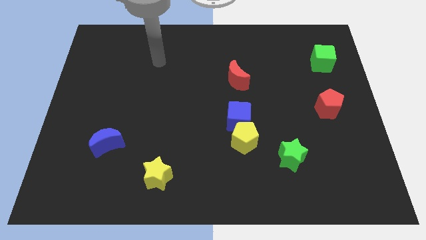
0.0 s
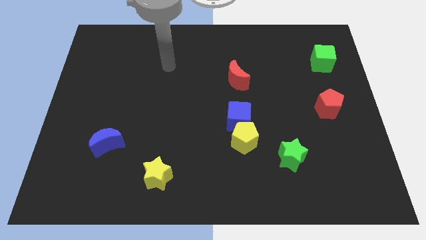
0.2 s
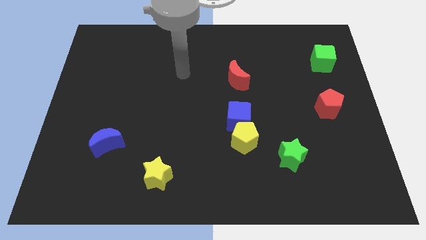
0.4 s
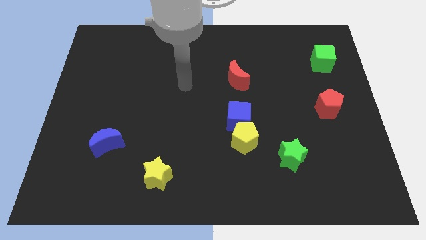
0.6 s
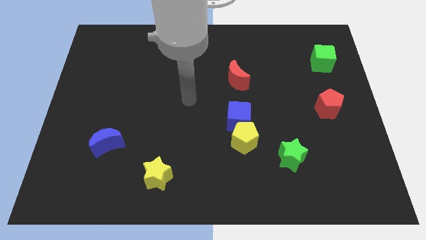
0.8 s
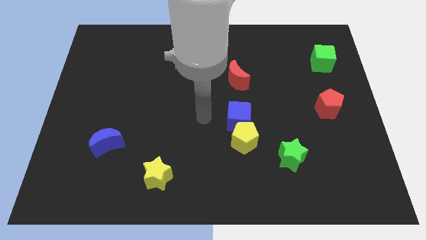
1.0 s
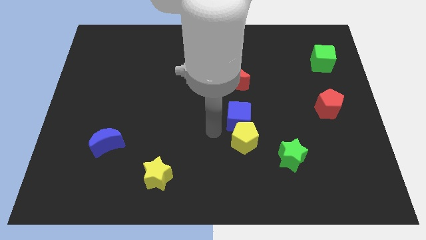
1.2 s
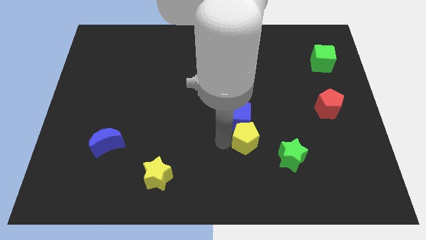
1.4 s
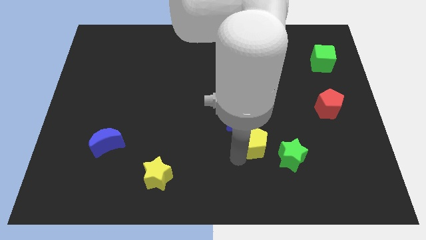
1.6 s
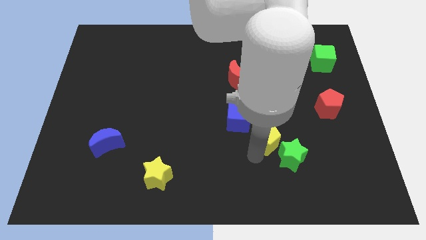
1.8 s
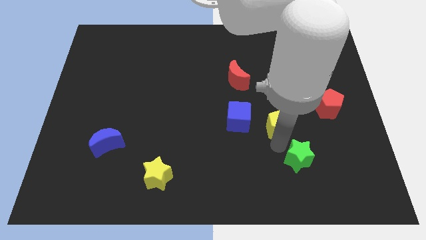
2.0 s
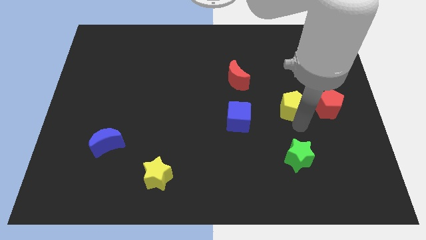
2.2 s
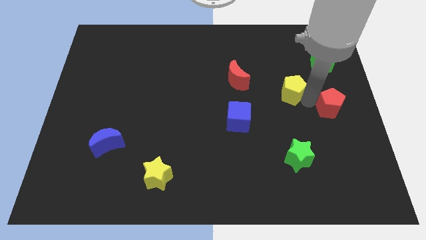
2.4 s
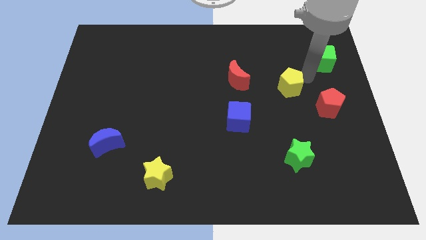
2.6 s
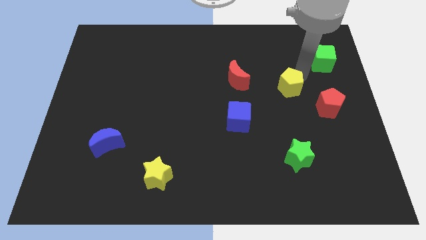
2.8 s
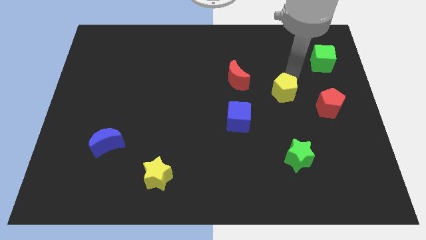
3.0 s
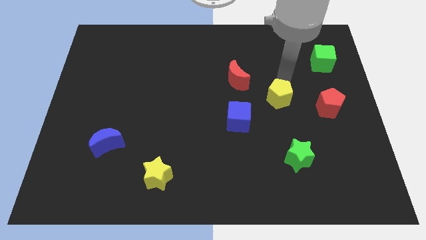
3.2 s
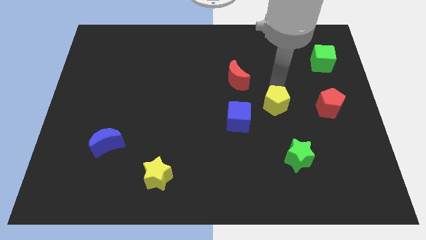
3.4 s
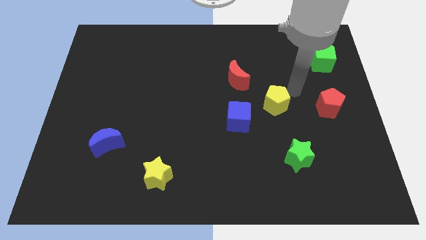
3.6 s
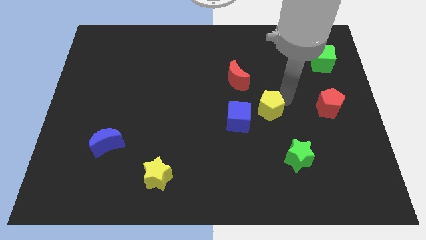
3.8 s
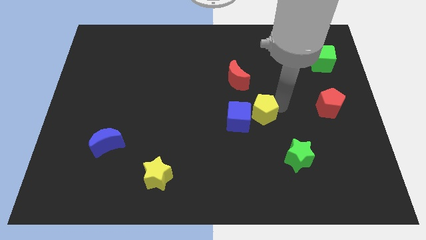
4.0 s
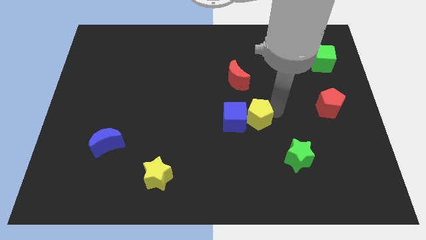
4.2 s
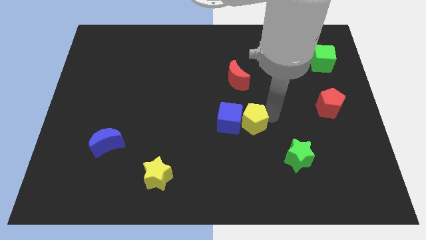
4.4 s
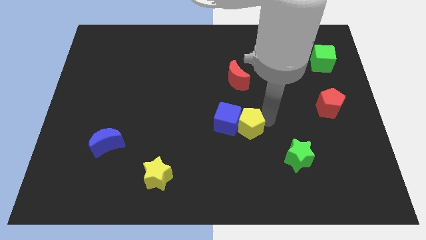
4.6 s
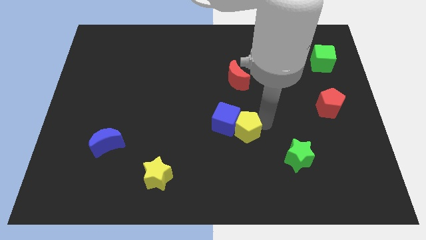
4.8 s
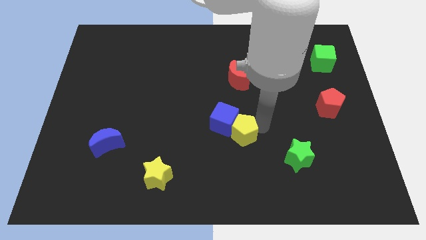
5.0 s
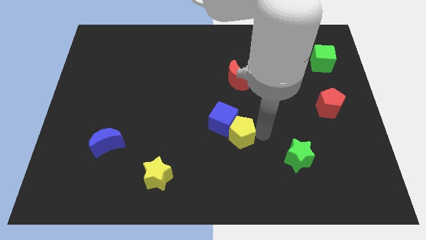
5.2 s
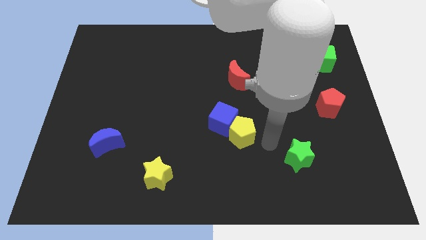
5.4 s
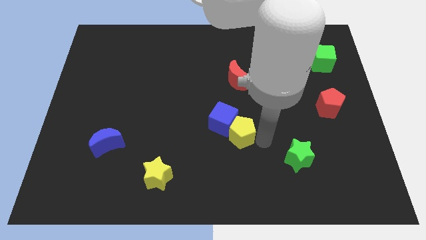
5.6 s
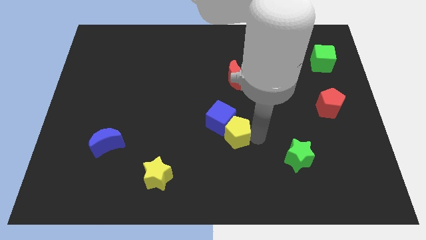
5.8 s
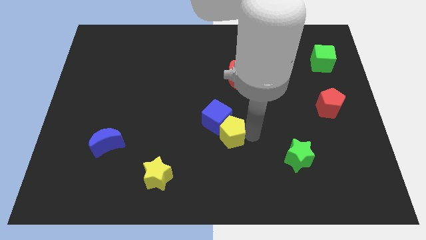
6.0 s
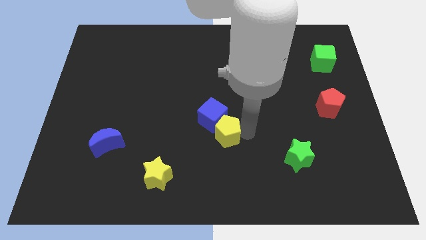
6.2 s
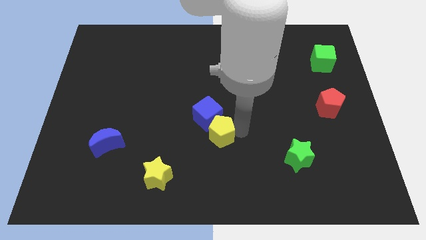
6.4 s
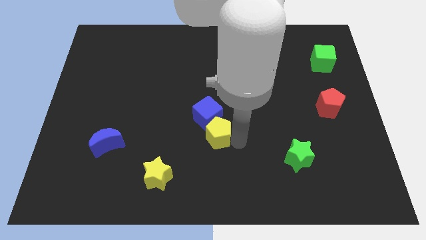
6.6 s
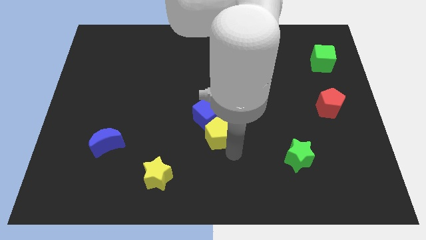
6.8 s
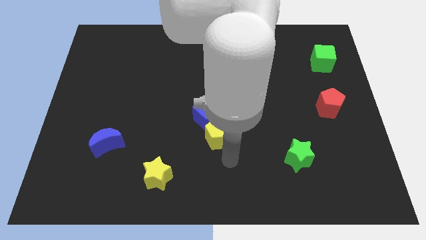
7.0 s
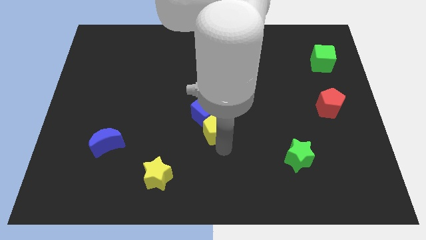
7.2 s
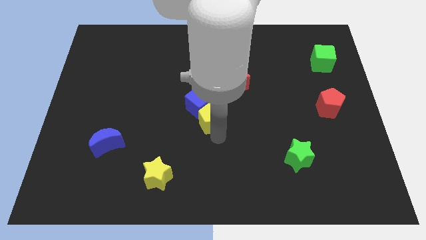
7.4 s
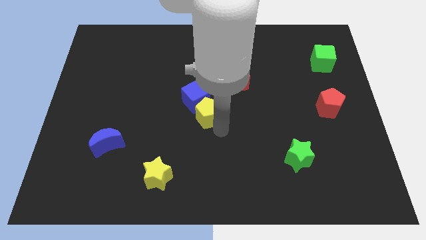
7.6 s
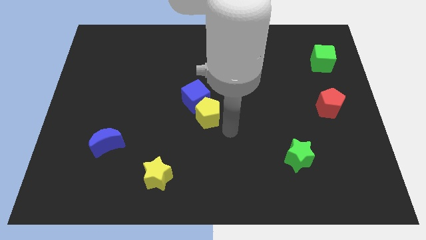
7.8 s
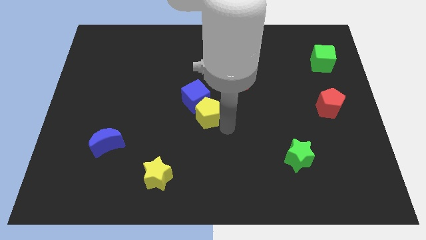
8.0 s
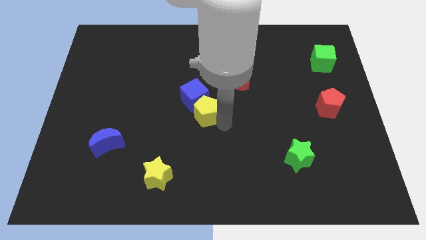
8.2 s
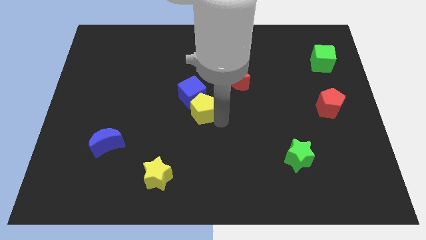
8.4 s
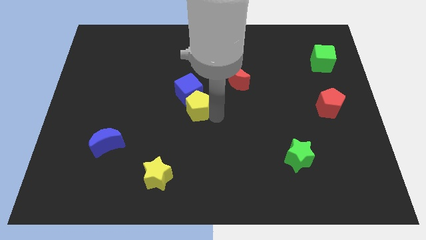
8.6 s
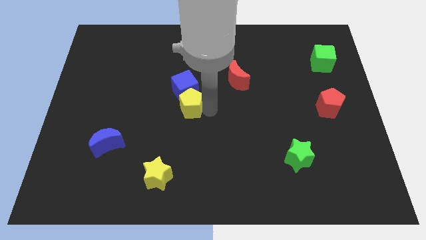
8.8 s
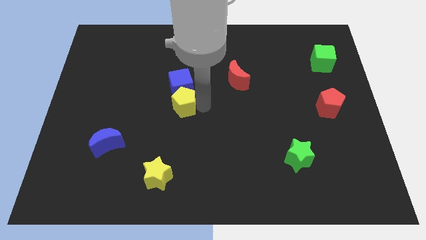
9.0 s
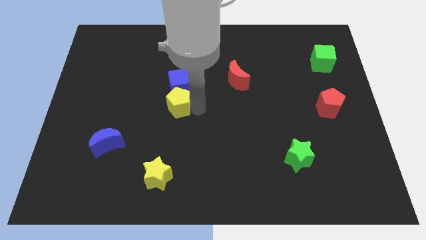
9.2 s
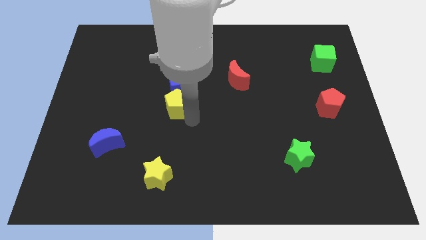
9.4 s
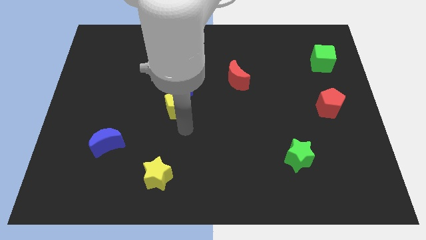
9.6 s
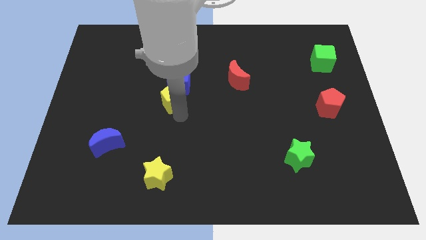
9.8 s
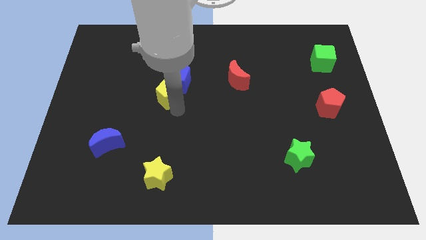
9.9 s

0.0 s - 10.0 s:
move the yellow pentagon upwards and left diagonally

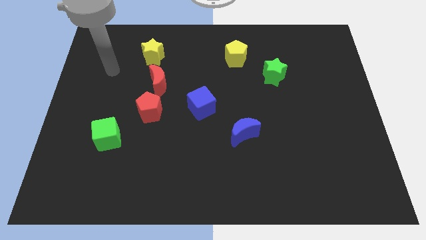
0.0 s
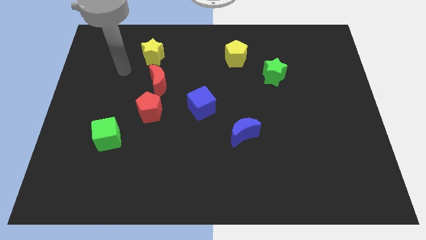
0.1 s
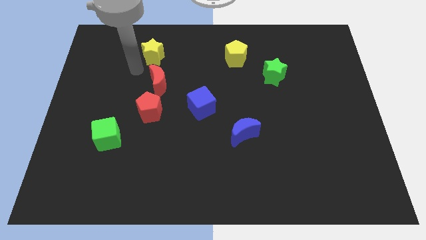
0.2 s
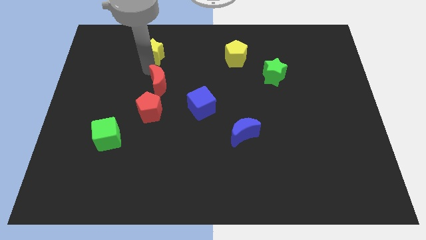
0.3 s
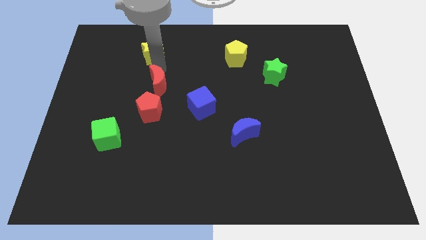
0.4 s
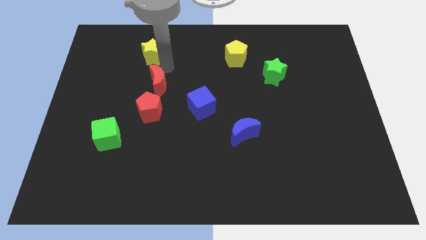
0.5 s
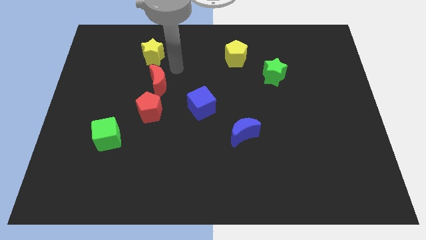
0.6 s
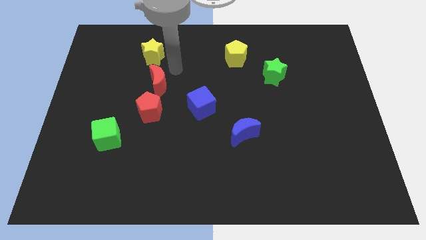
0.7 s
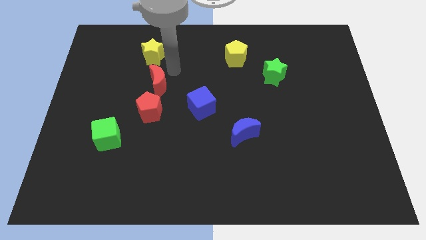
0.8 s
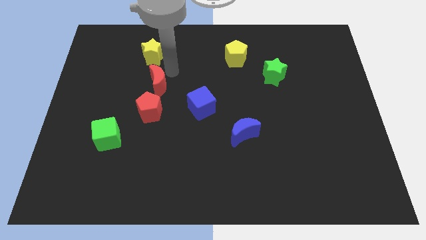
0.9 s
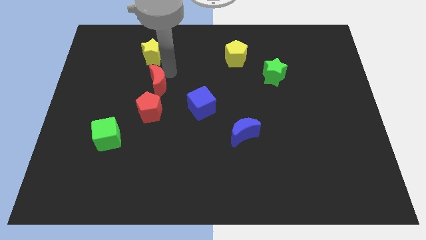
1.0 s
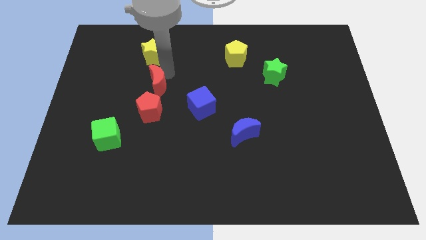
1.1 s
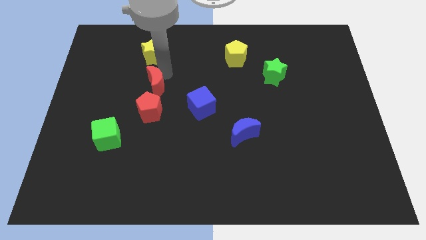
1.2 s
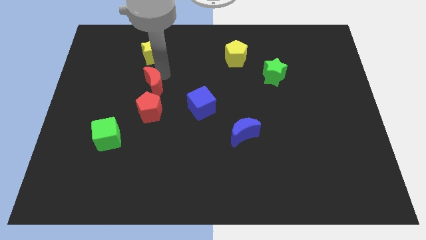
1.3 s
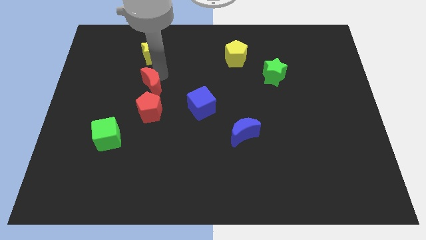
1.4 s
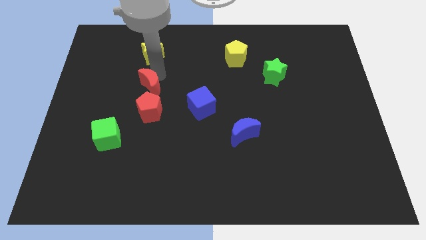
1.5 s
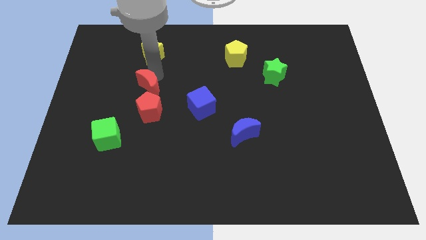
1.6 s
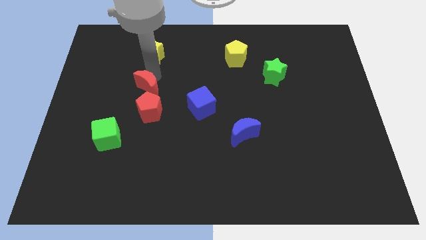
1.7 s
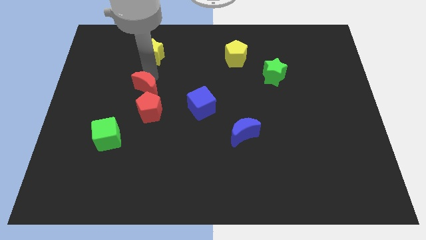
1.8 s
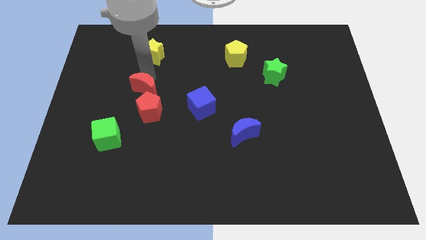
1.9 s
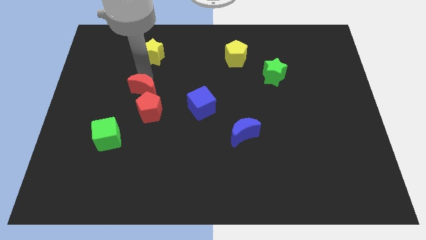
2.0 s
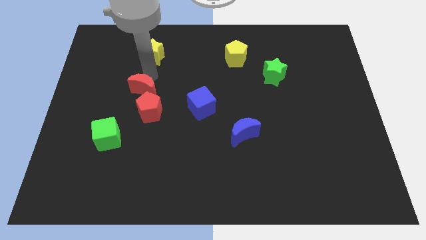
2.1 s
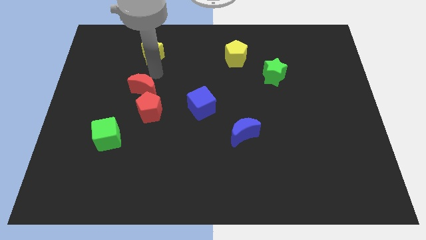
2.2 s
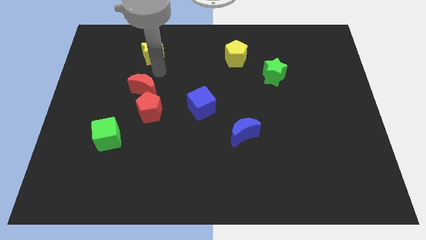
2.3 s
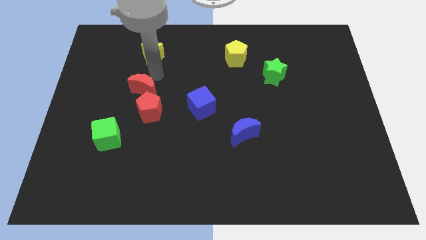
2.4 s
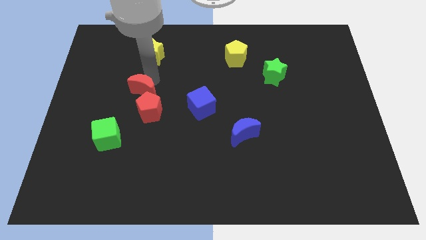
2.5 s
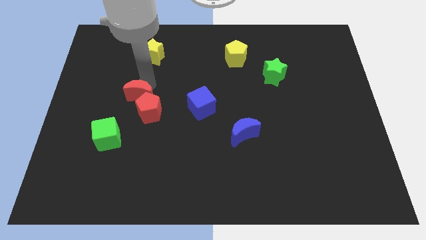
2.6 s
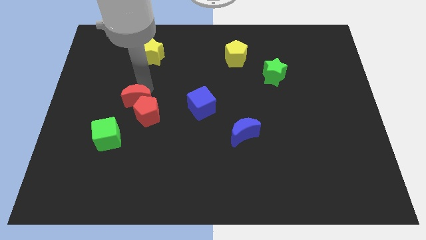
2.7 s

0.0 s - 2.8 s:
slightly slide the red moon diagonally downwards and to the left

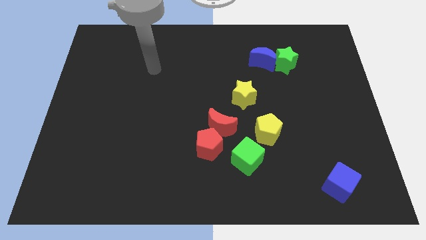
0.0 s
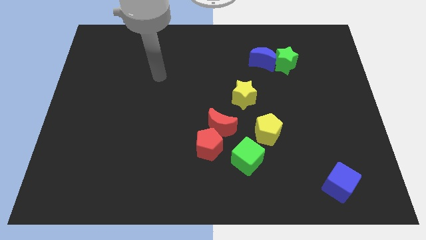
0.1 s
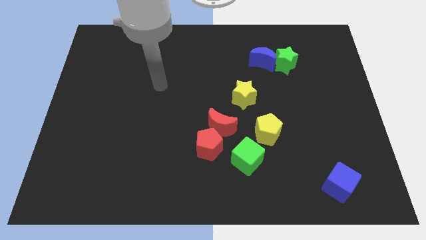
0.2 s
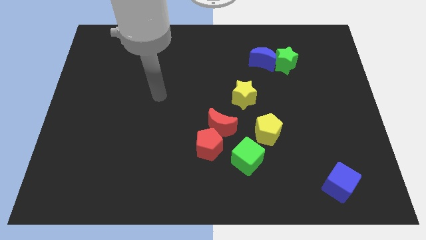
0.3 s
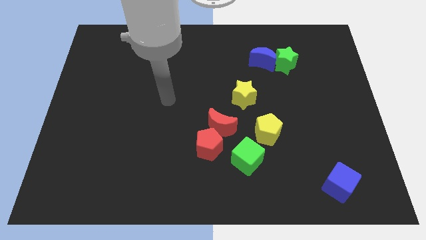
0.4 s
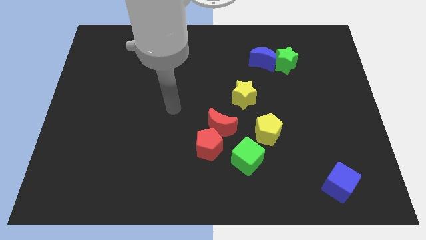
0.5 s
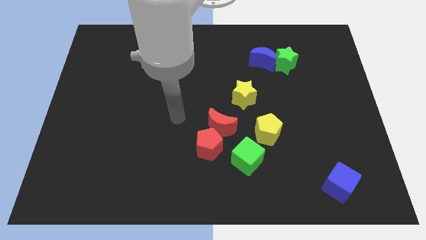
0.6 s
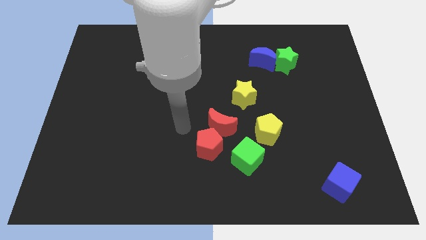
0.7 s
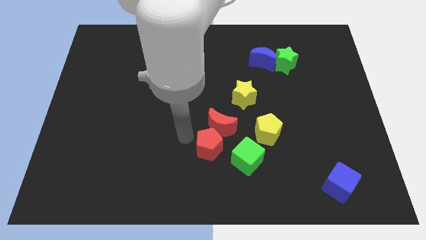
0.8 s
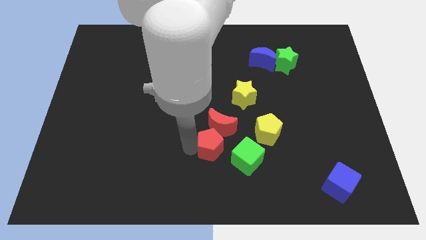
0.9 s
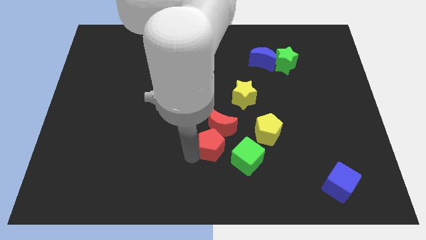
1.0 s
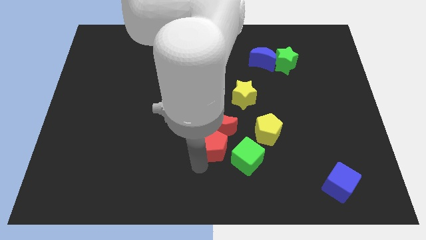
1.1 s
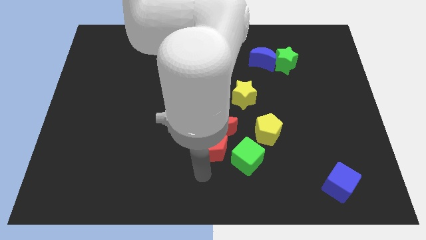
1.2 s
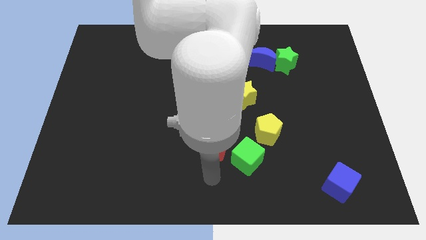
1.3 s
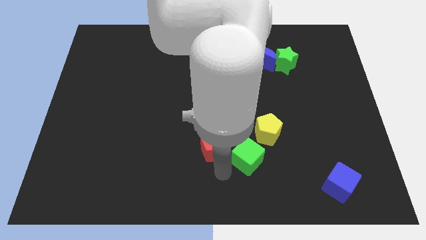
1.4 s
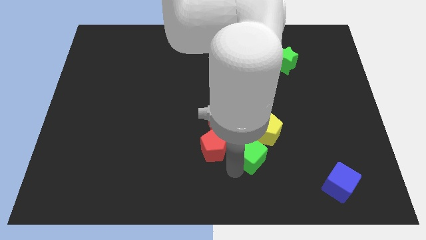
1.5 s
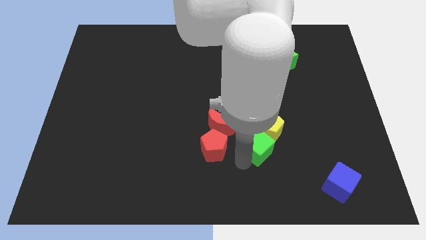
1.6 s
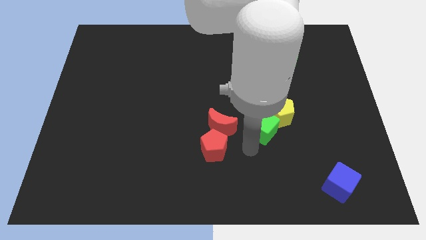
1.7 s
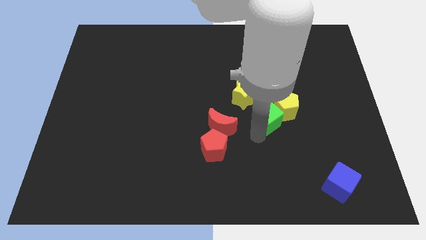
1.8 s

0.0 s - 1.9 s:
move the yellow pentagon a little bit upwards and right diagonally
